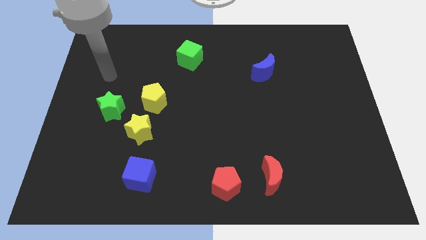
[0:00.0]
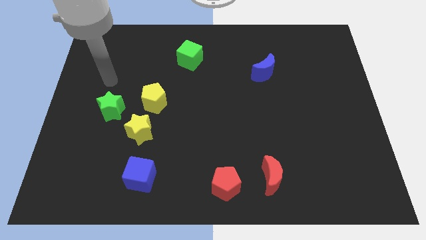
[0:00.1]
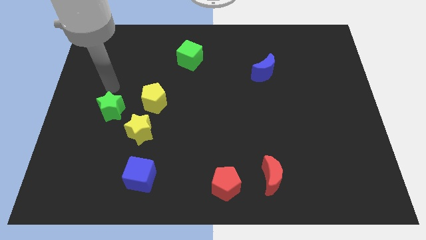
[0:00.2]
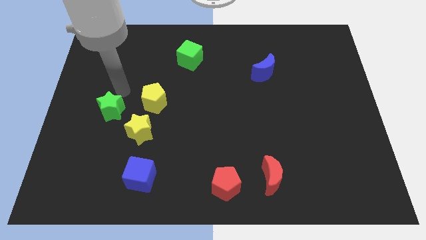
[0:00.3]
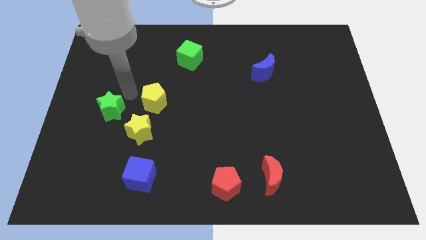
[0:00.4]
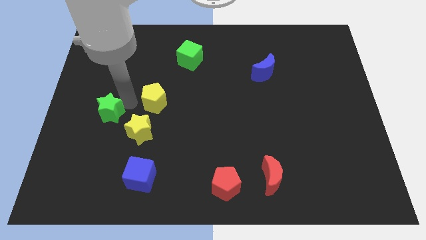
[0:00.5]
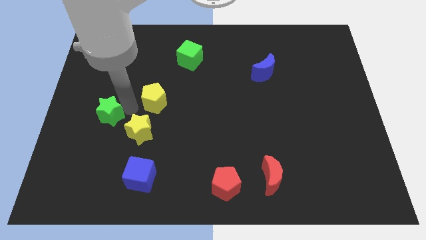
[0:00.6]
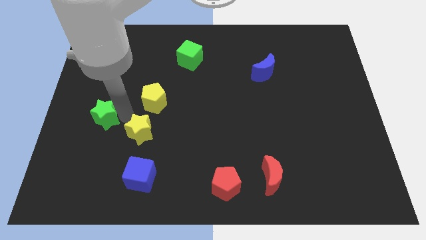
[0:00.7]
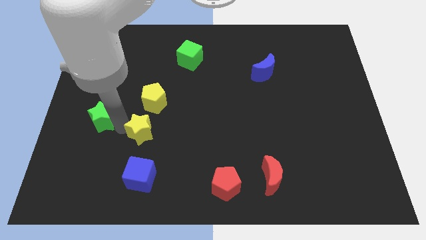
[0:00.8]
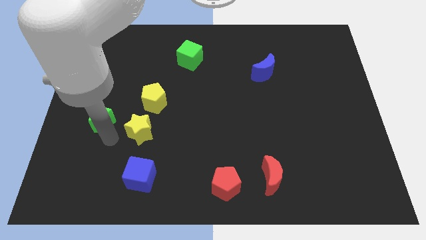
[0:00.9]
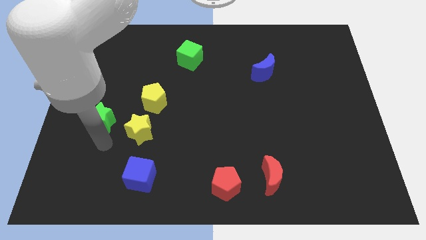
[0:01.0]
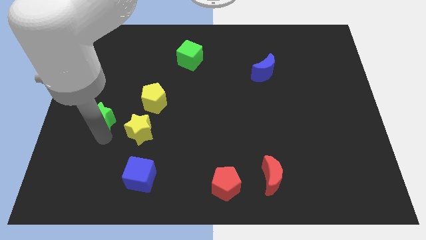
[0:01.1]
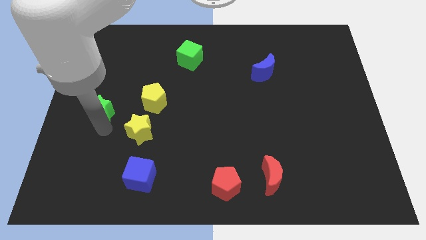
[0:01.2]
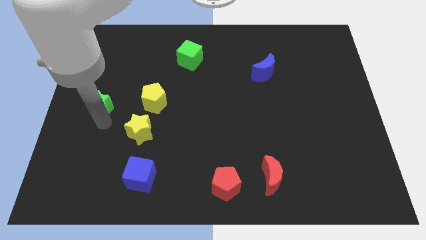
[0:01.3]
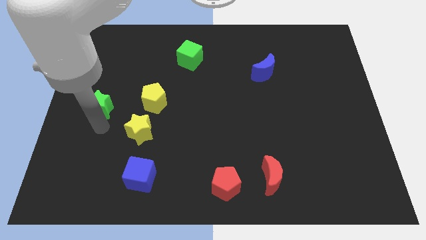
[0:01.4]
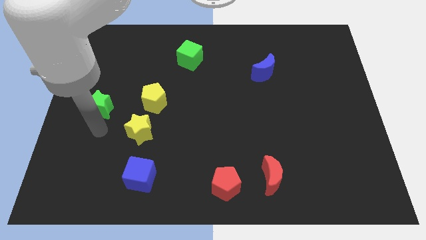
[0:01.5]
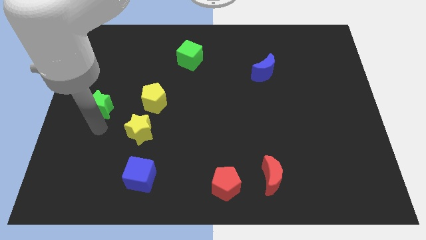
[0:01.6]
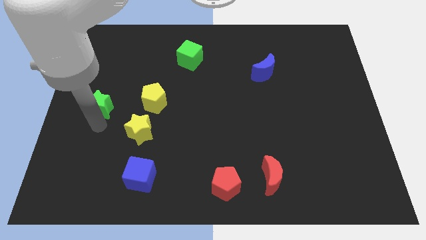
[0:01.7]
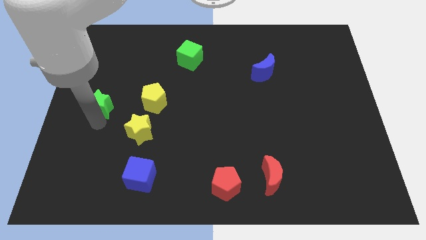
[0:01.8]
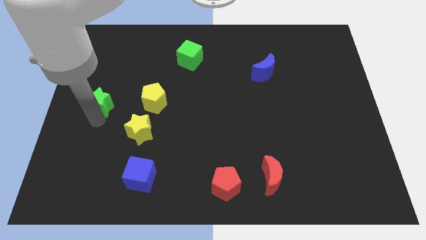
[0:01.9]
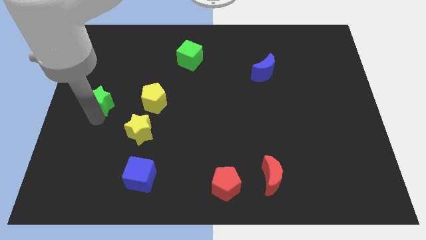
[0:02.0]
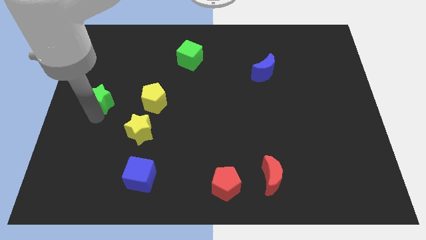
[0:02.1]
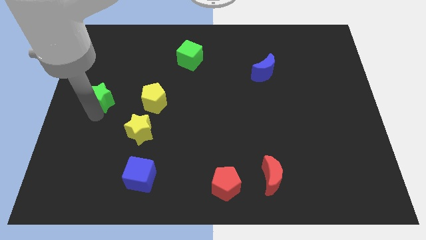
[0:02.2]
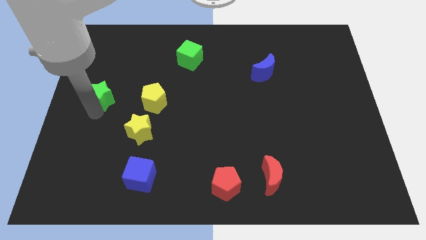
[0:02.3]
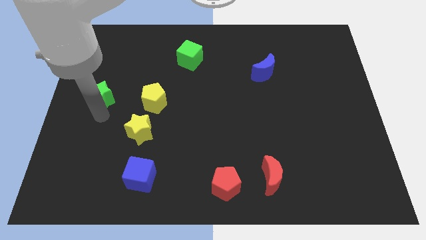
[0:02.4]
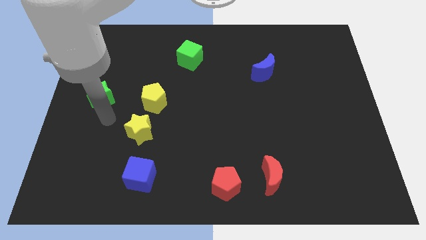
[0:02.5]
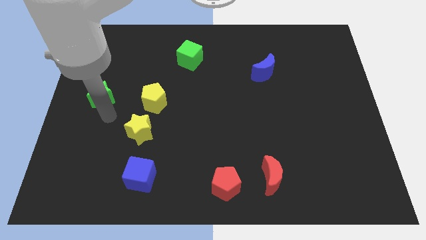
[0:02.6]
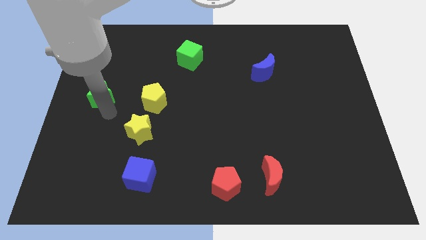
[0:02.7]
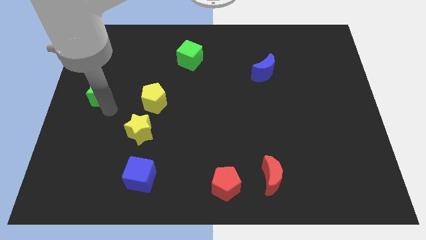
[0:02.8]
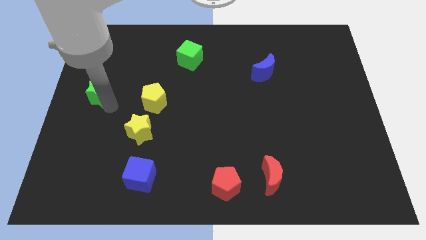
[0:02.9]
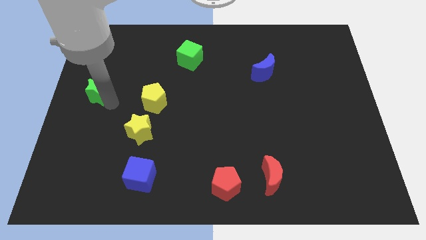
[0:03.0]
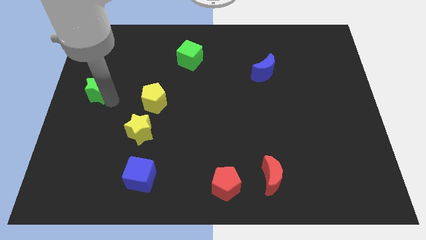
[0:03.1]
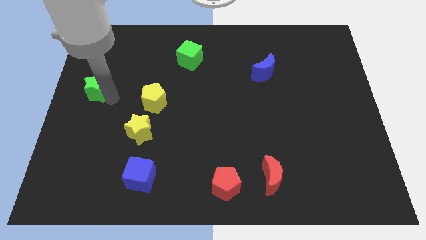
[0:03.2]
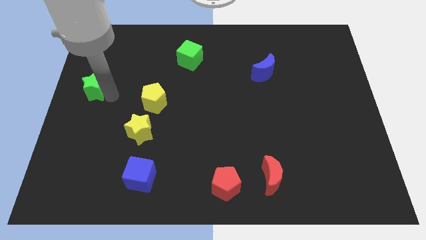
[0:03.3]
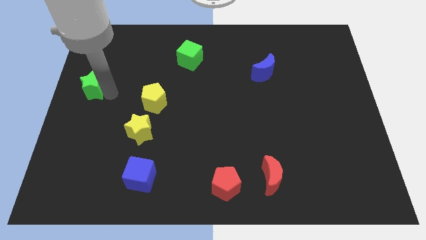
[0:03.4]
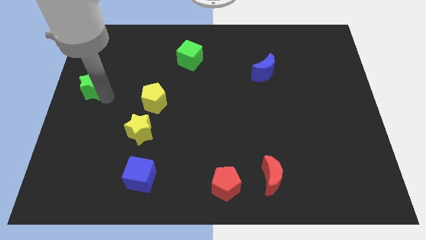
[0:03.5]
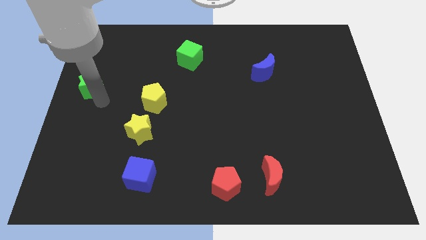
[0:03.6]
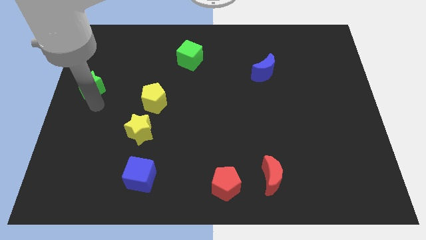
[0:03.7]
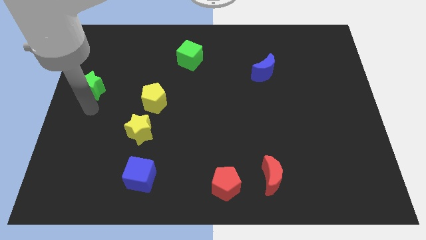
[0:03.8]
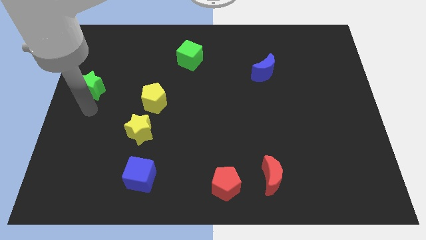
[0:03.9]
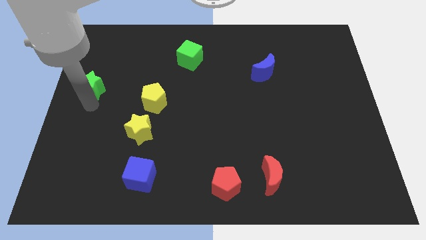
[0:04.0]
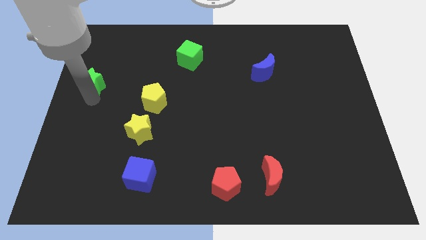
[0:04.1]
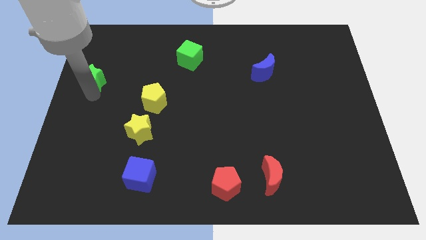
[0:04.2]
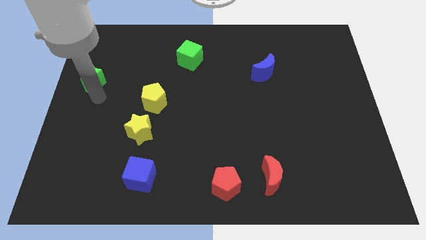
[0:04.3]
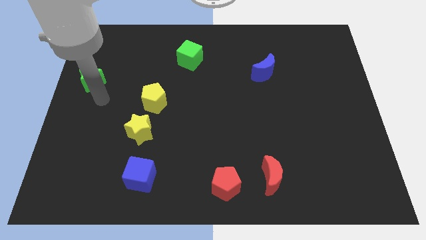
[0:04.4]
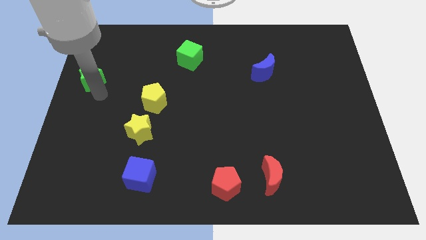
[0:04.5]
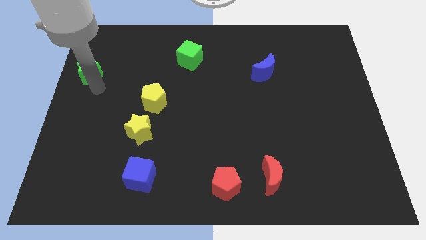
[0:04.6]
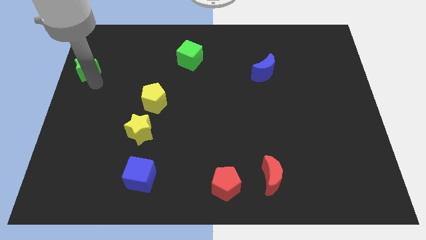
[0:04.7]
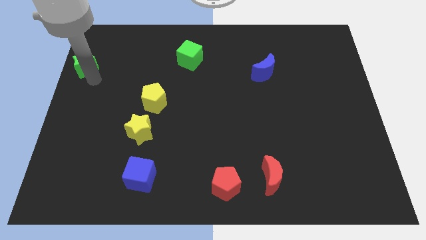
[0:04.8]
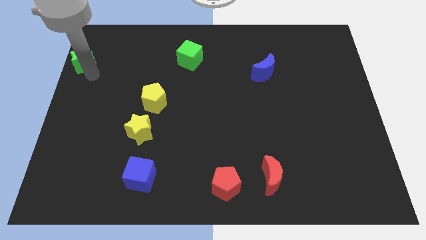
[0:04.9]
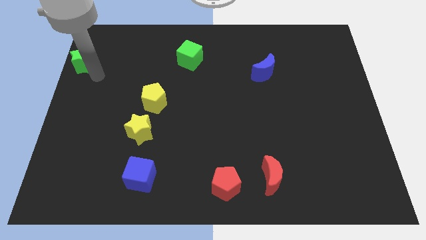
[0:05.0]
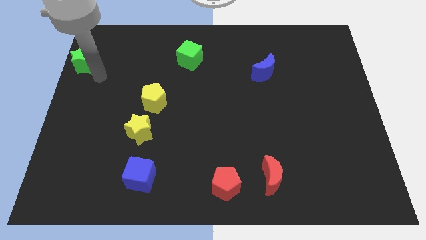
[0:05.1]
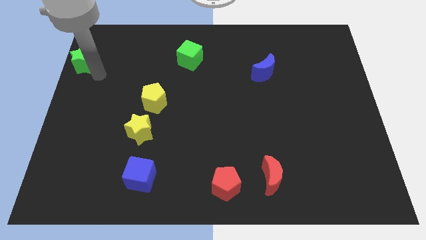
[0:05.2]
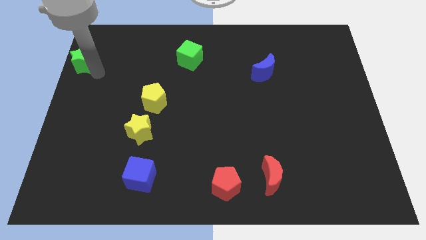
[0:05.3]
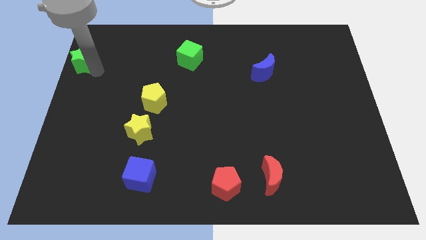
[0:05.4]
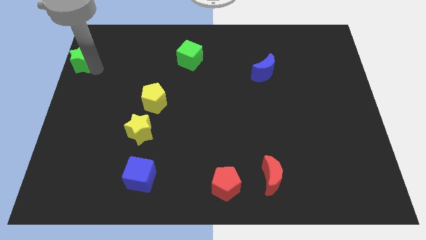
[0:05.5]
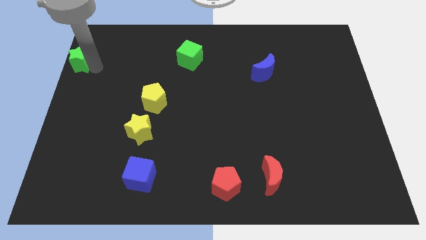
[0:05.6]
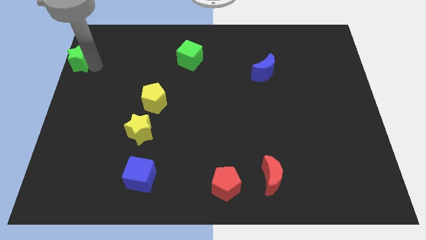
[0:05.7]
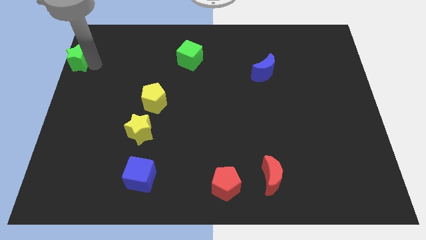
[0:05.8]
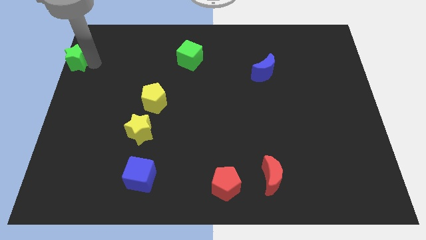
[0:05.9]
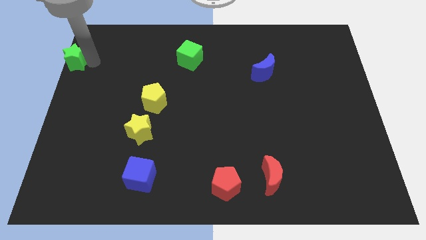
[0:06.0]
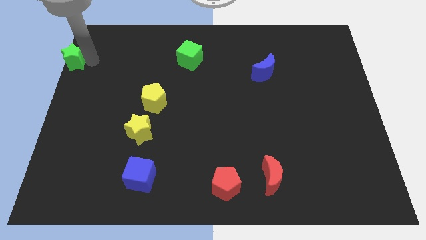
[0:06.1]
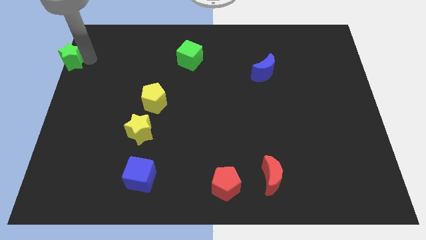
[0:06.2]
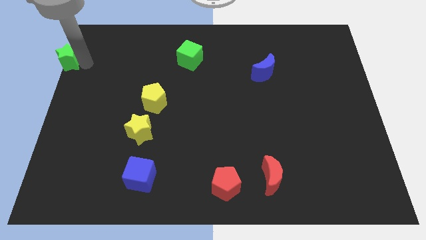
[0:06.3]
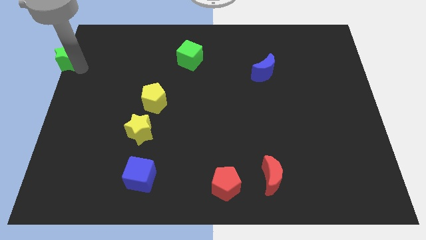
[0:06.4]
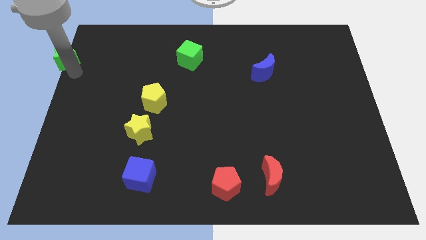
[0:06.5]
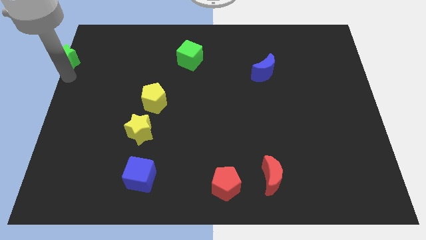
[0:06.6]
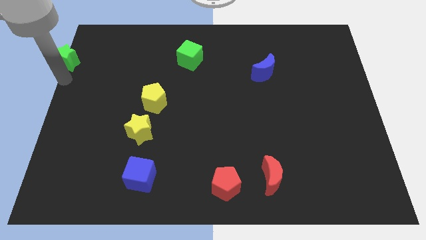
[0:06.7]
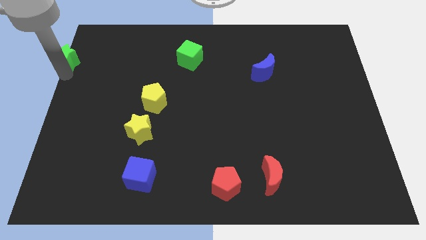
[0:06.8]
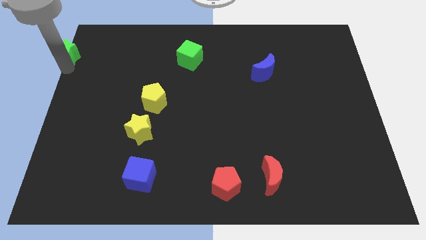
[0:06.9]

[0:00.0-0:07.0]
put the green star to the upper left corner
